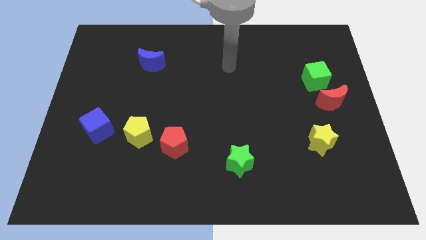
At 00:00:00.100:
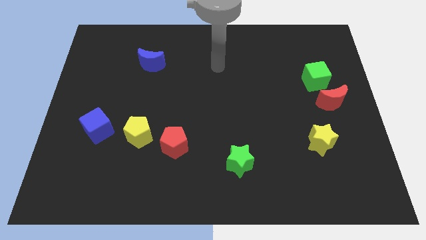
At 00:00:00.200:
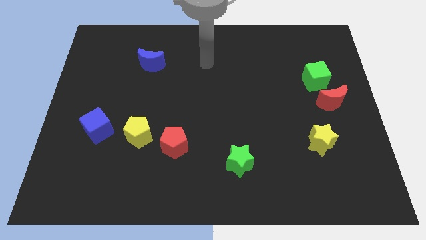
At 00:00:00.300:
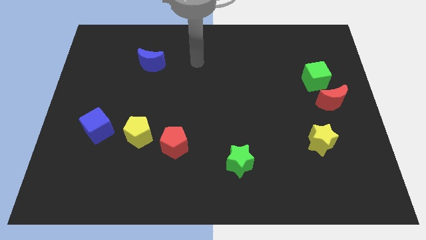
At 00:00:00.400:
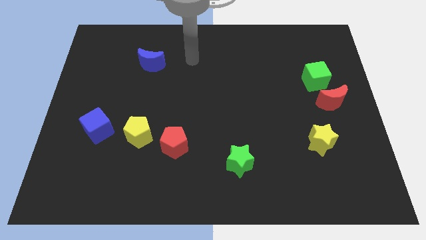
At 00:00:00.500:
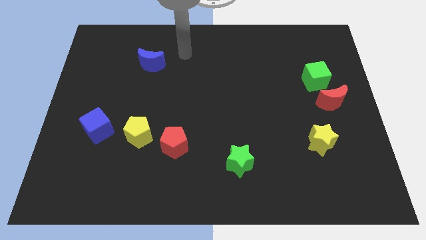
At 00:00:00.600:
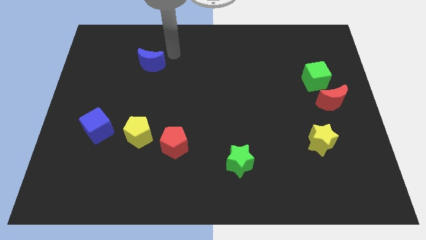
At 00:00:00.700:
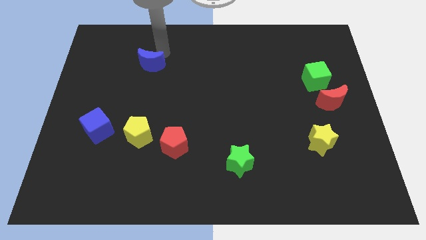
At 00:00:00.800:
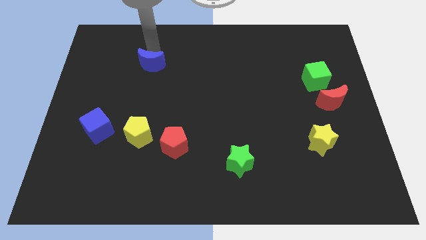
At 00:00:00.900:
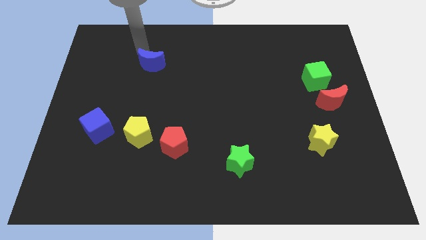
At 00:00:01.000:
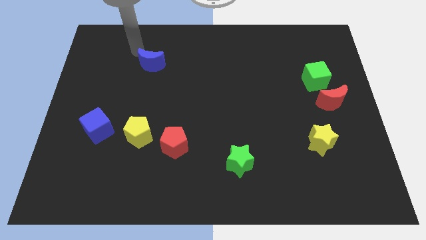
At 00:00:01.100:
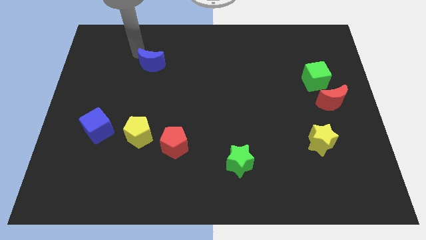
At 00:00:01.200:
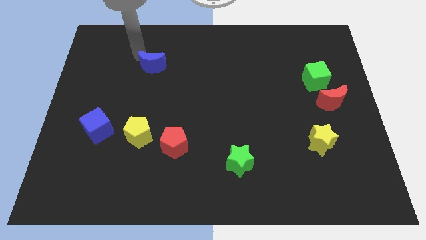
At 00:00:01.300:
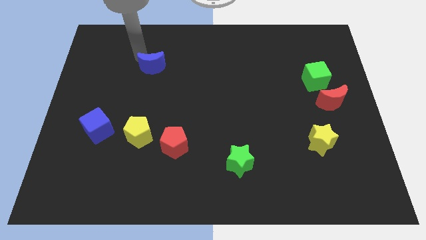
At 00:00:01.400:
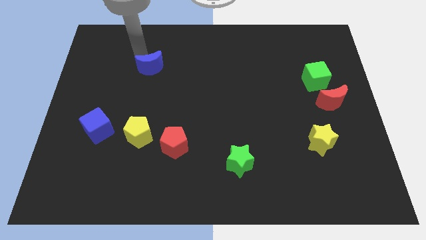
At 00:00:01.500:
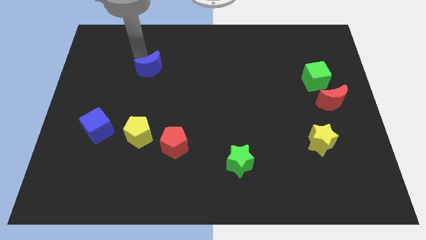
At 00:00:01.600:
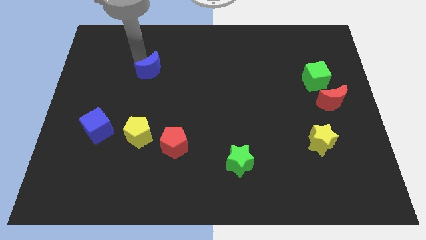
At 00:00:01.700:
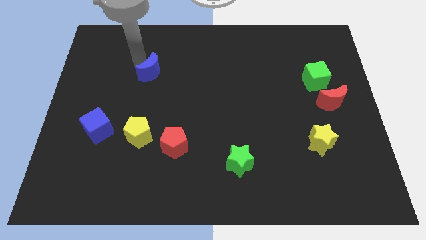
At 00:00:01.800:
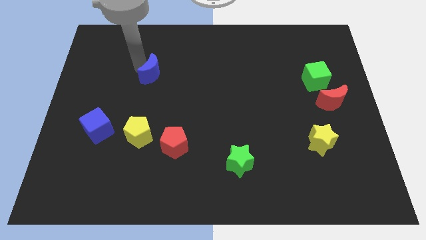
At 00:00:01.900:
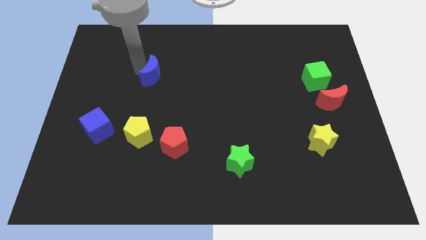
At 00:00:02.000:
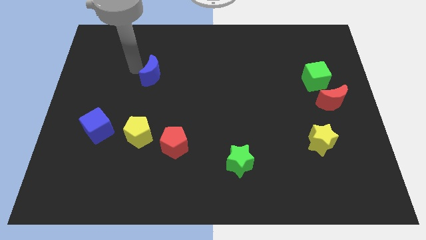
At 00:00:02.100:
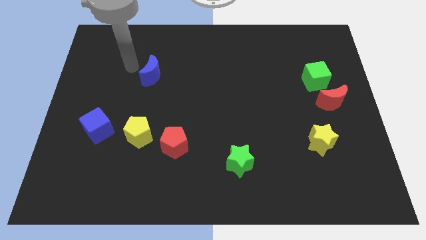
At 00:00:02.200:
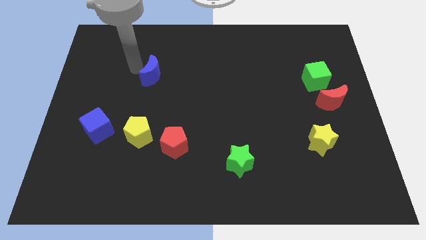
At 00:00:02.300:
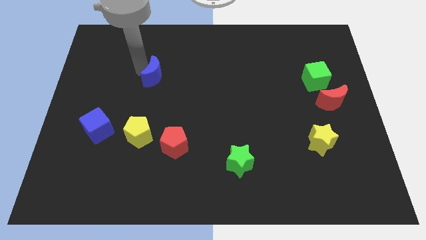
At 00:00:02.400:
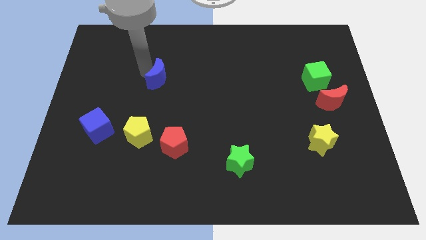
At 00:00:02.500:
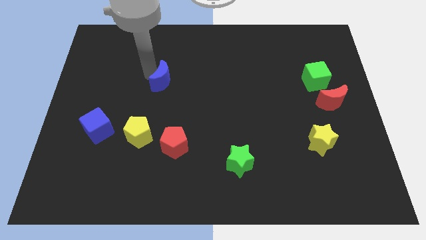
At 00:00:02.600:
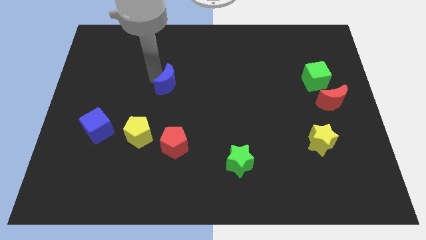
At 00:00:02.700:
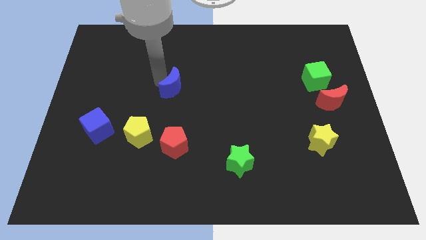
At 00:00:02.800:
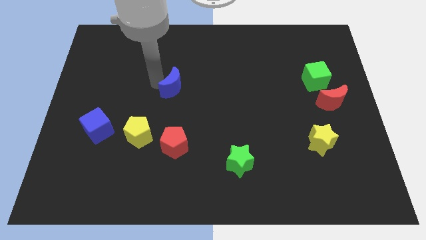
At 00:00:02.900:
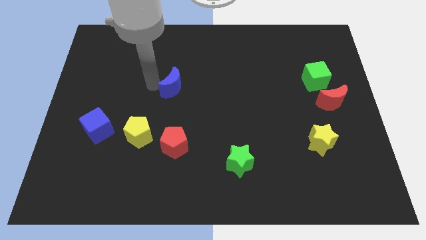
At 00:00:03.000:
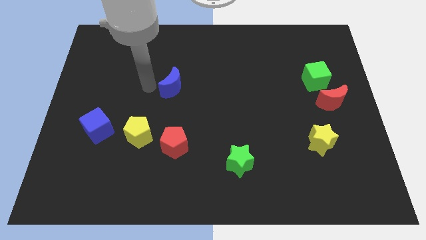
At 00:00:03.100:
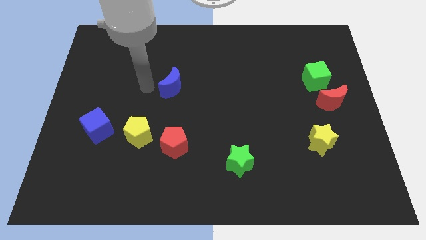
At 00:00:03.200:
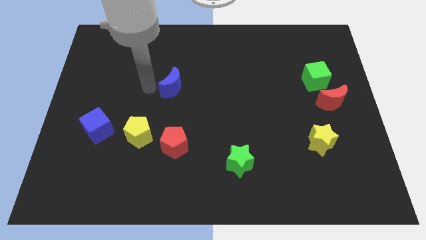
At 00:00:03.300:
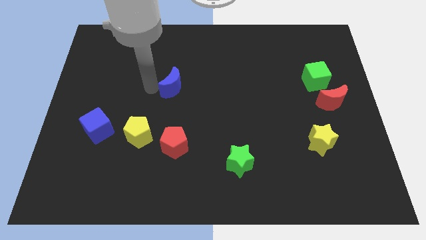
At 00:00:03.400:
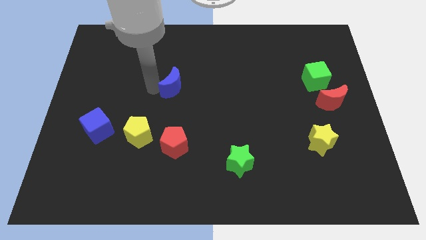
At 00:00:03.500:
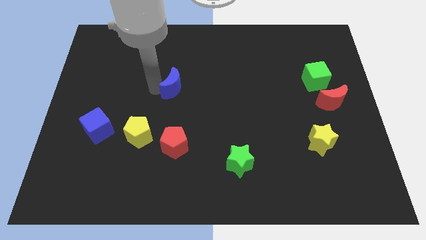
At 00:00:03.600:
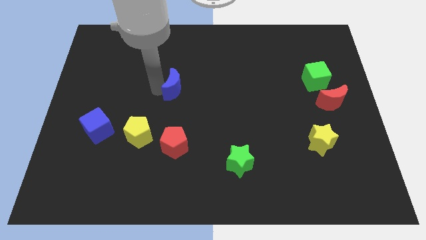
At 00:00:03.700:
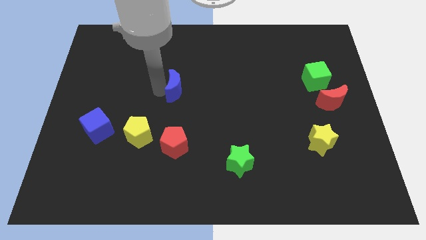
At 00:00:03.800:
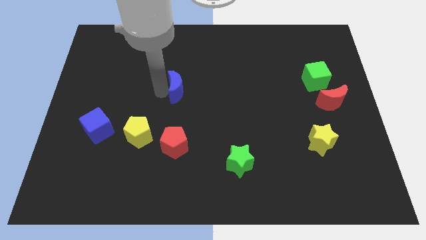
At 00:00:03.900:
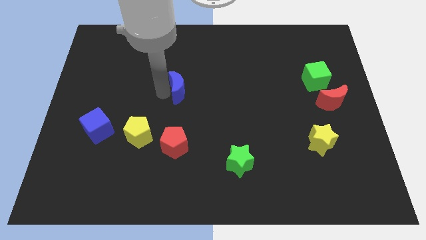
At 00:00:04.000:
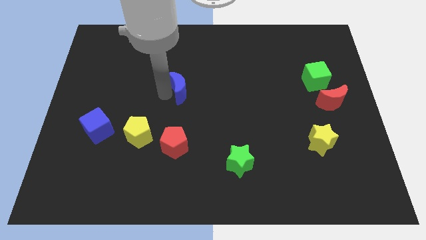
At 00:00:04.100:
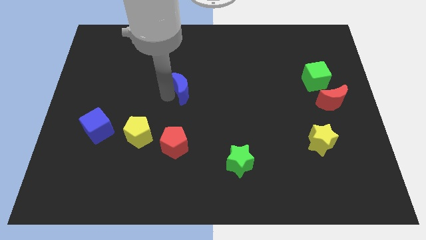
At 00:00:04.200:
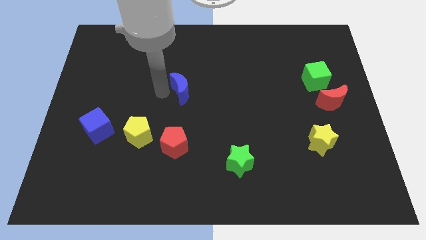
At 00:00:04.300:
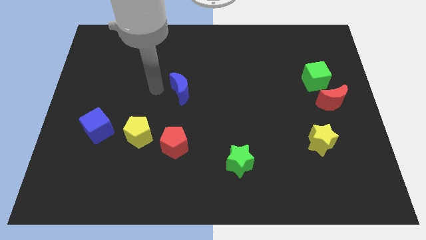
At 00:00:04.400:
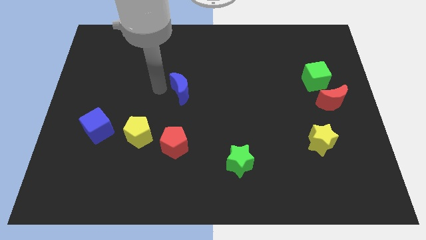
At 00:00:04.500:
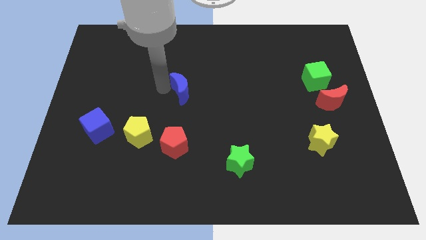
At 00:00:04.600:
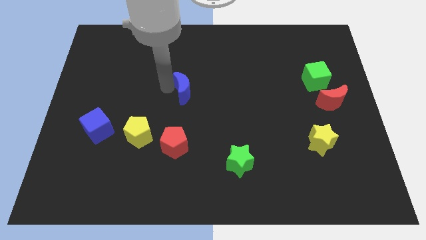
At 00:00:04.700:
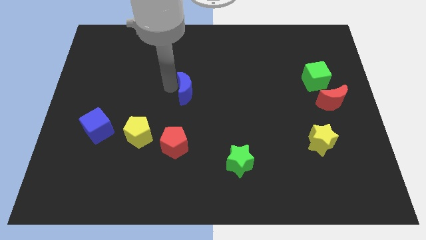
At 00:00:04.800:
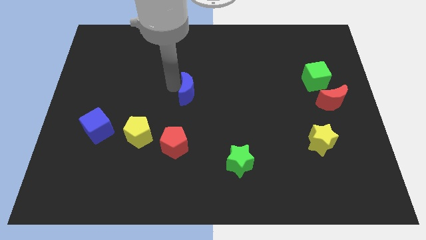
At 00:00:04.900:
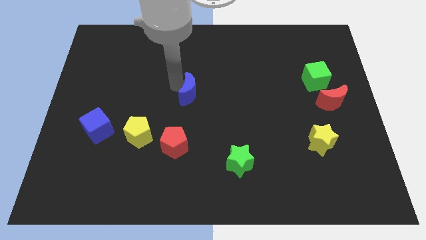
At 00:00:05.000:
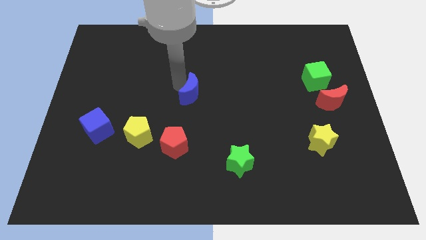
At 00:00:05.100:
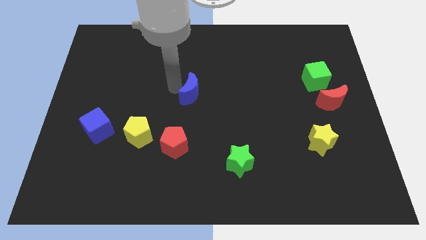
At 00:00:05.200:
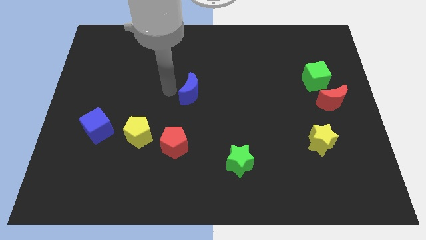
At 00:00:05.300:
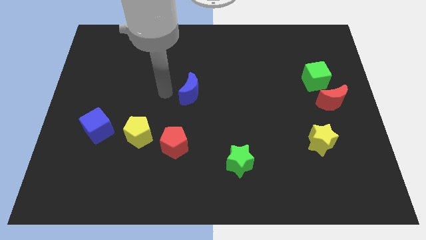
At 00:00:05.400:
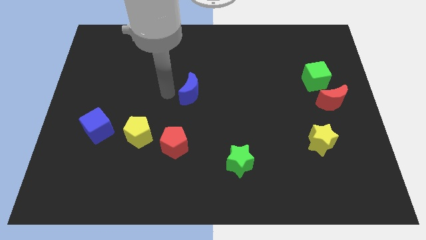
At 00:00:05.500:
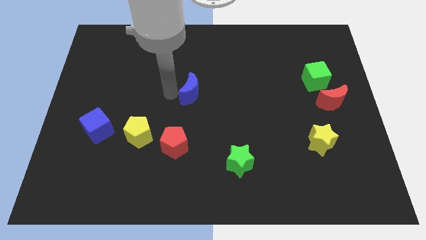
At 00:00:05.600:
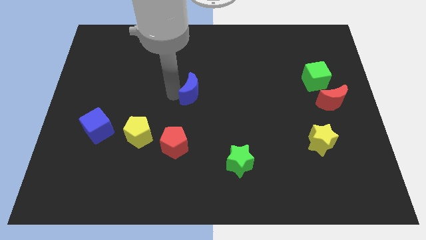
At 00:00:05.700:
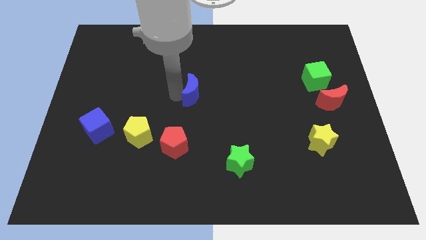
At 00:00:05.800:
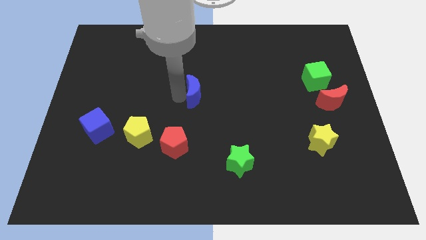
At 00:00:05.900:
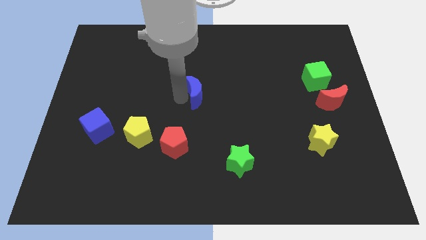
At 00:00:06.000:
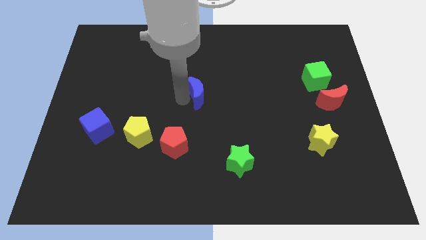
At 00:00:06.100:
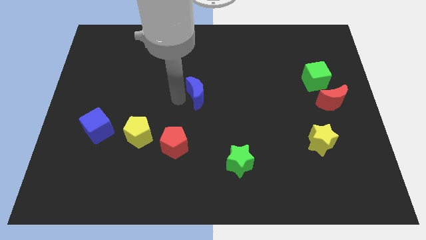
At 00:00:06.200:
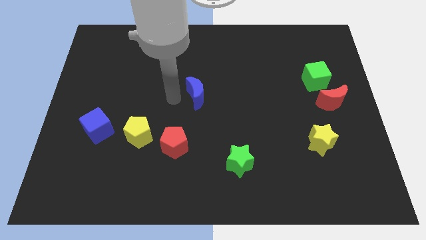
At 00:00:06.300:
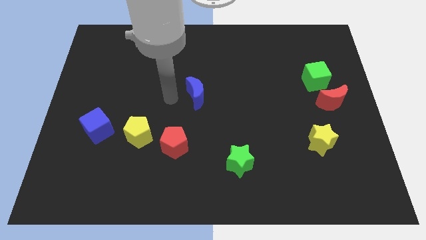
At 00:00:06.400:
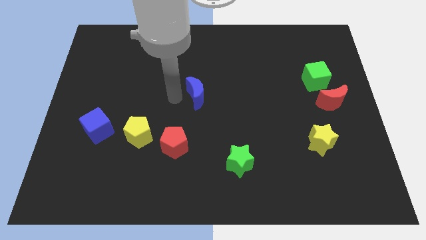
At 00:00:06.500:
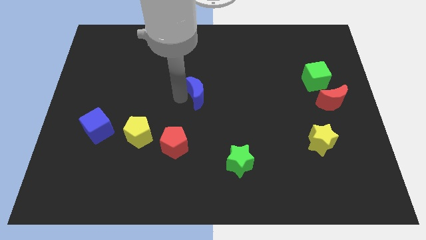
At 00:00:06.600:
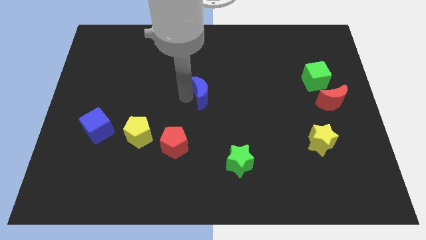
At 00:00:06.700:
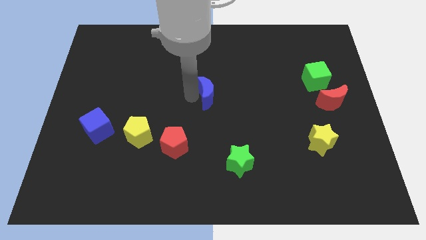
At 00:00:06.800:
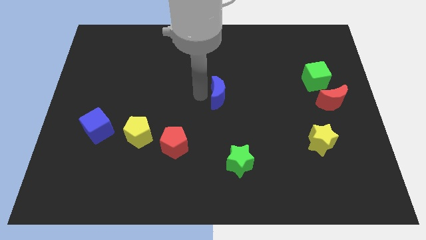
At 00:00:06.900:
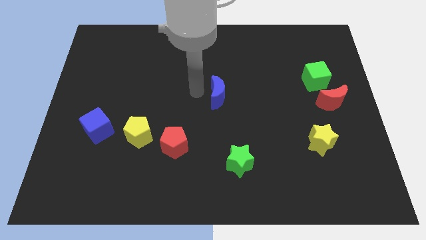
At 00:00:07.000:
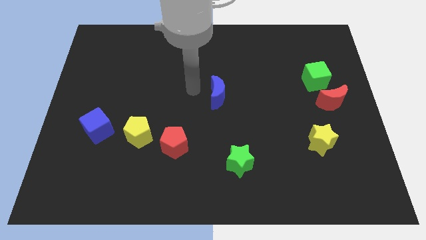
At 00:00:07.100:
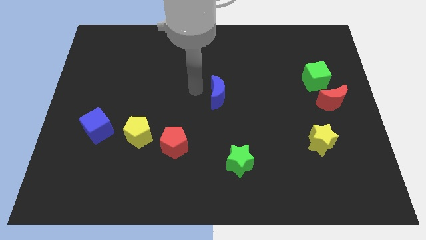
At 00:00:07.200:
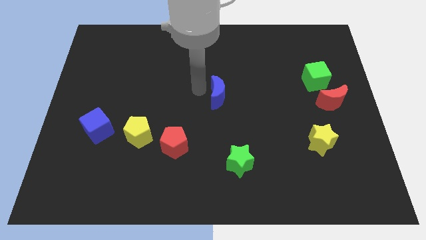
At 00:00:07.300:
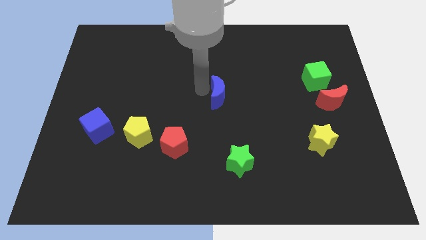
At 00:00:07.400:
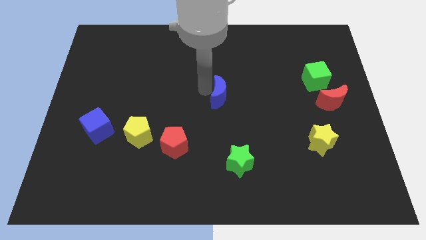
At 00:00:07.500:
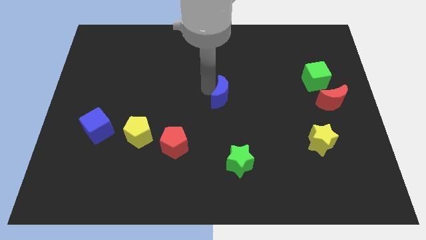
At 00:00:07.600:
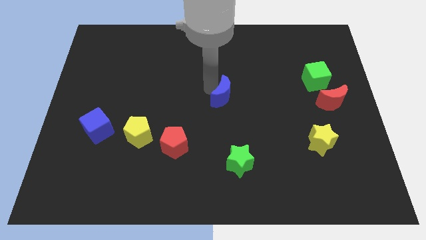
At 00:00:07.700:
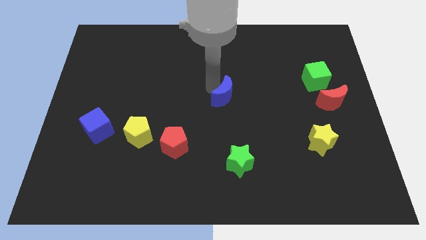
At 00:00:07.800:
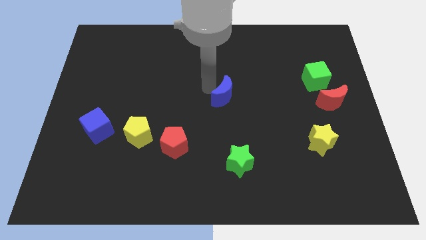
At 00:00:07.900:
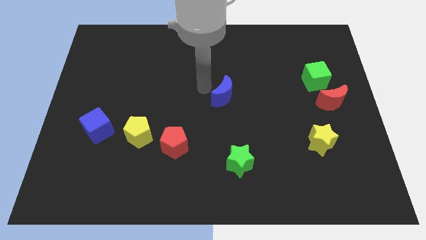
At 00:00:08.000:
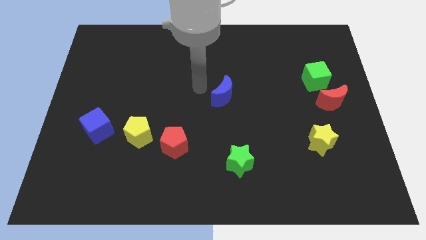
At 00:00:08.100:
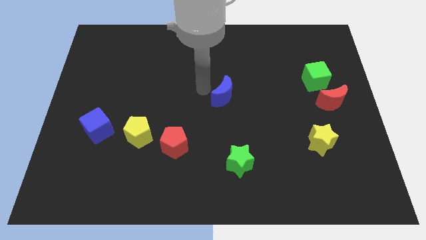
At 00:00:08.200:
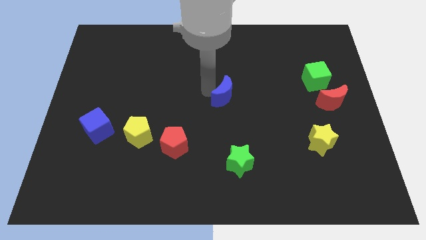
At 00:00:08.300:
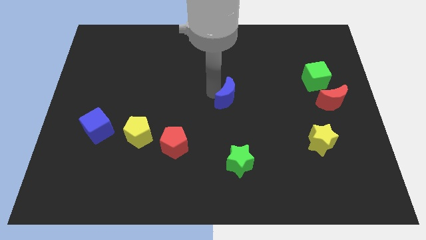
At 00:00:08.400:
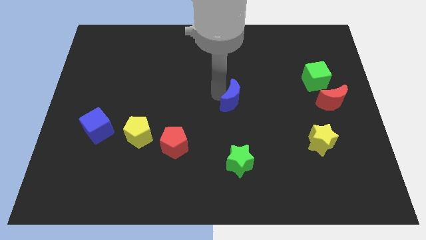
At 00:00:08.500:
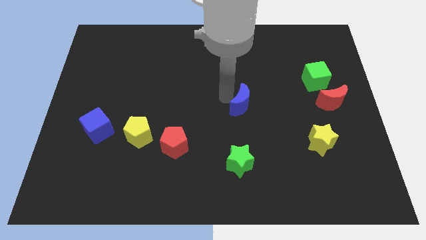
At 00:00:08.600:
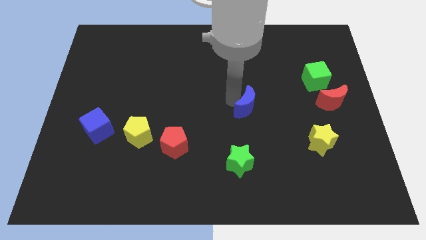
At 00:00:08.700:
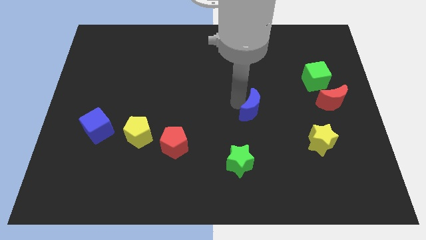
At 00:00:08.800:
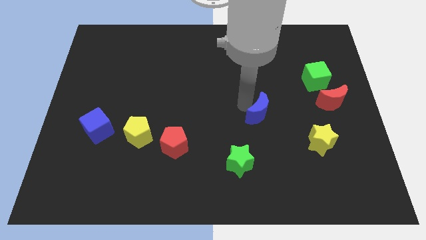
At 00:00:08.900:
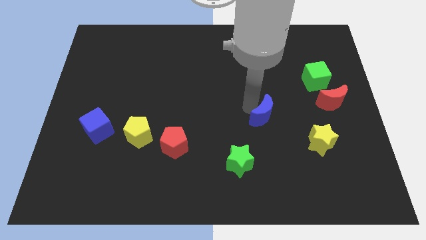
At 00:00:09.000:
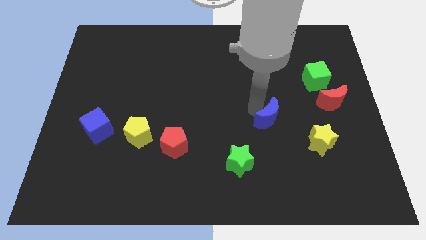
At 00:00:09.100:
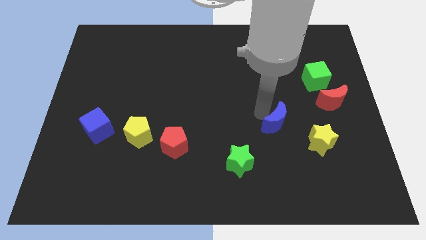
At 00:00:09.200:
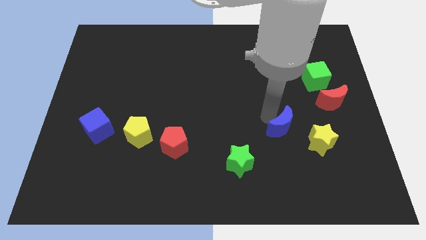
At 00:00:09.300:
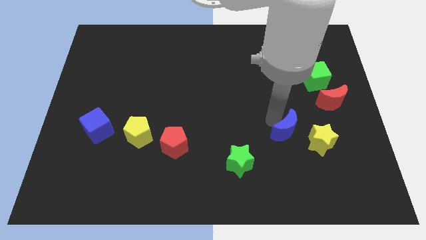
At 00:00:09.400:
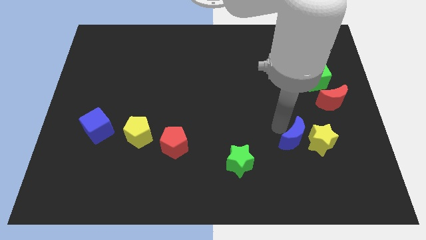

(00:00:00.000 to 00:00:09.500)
push the blue moon close to the yellow star
